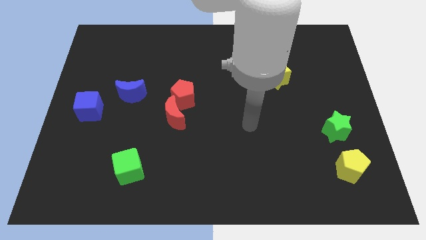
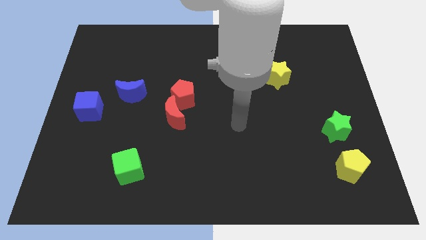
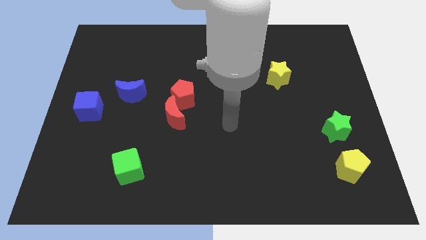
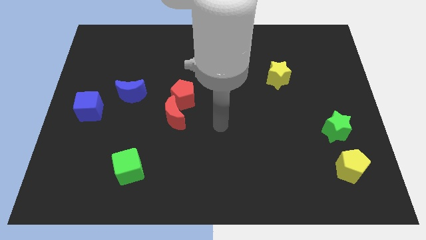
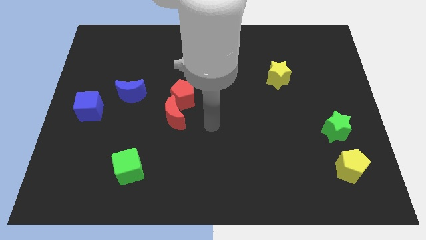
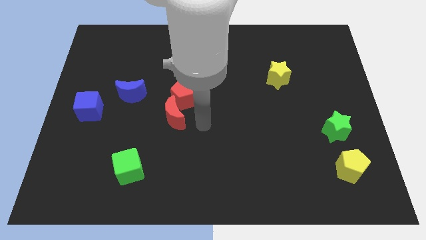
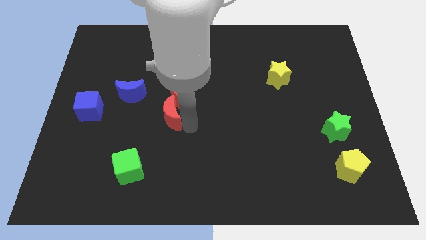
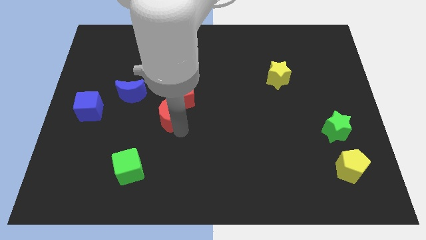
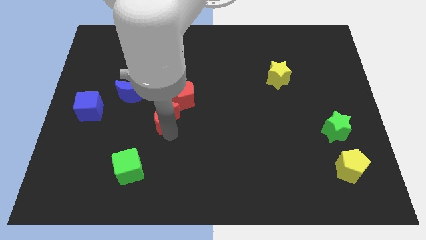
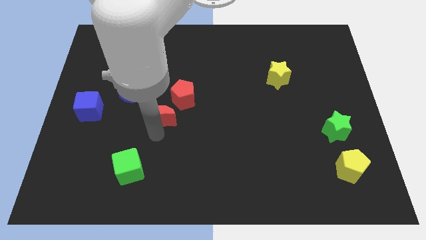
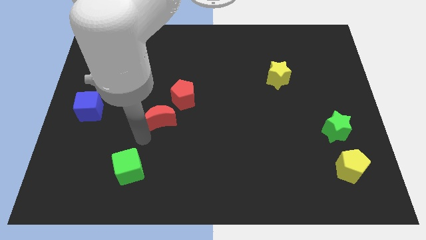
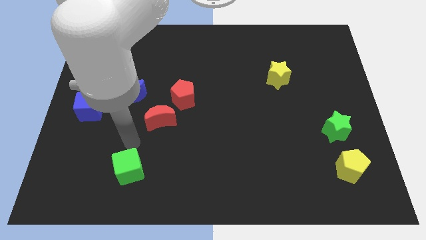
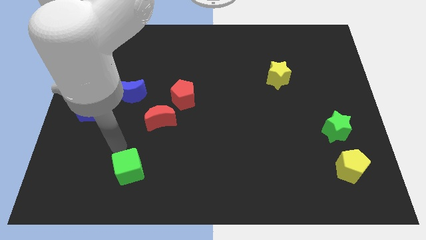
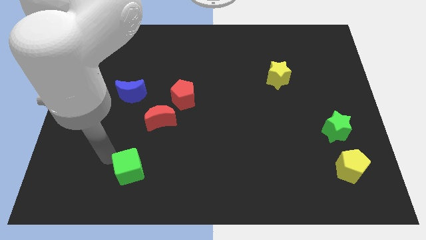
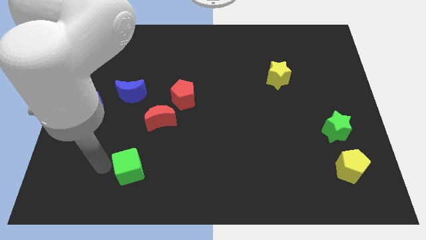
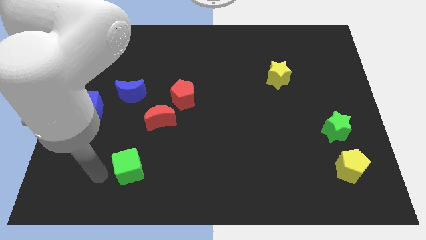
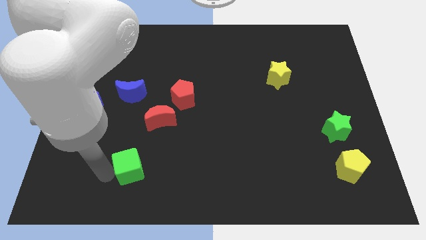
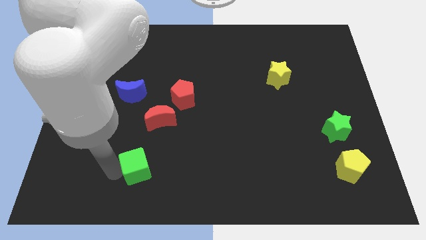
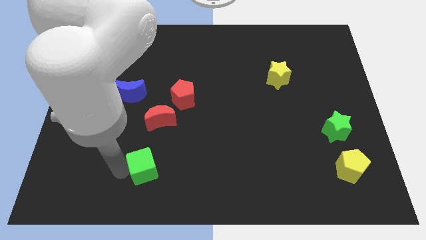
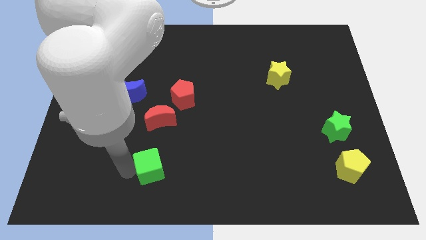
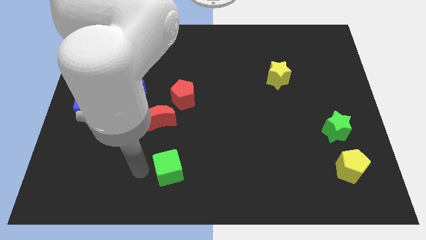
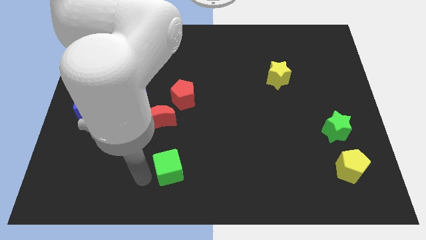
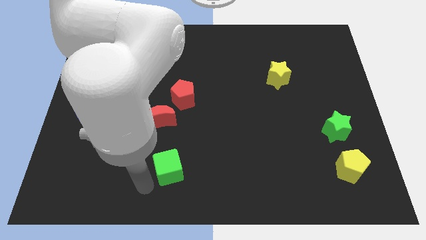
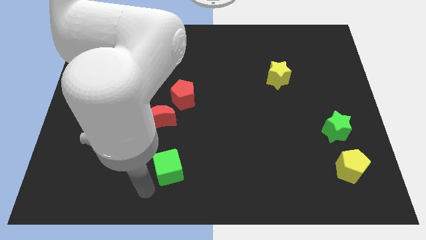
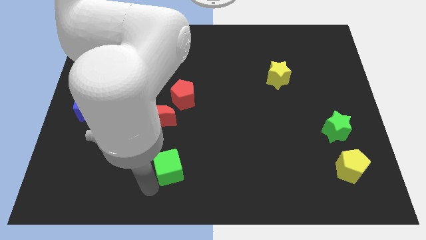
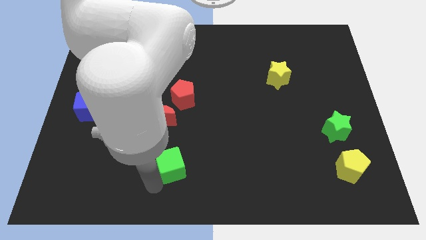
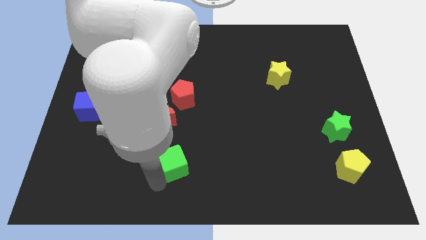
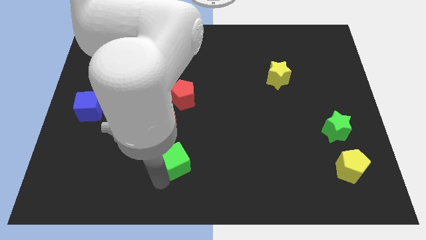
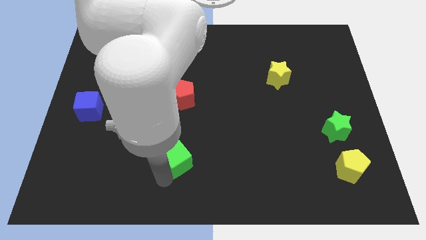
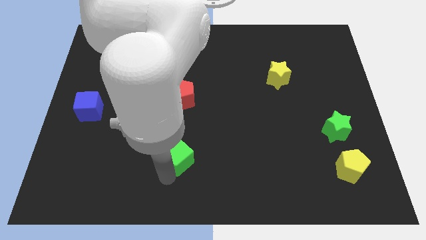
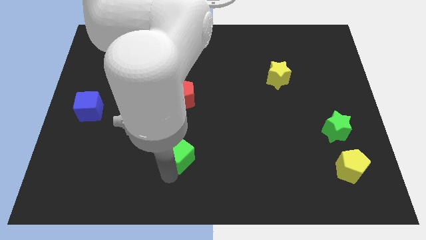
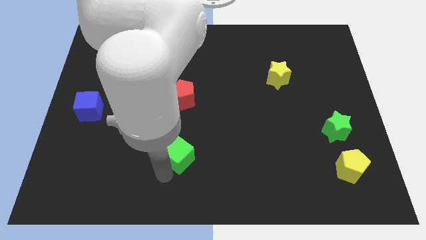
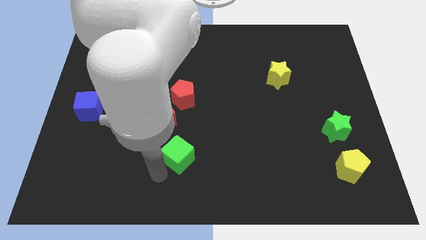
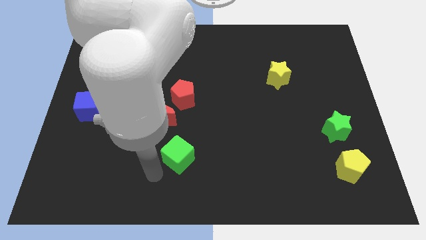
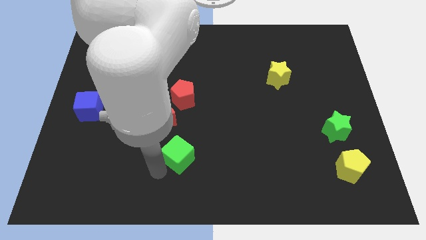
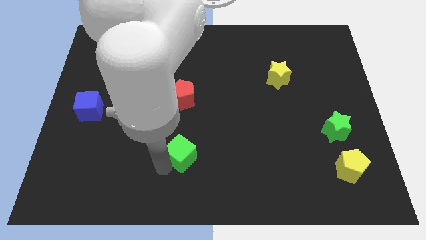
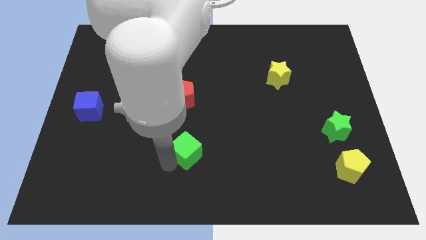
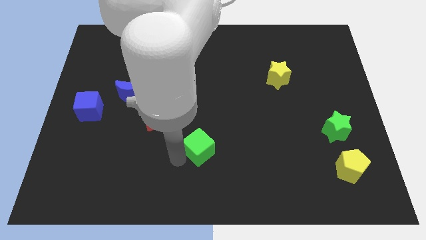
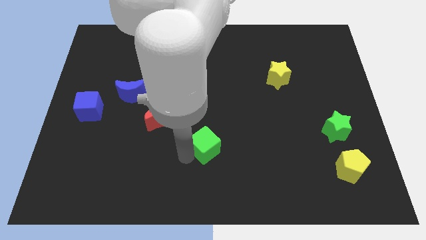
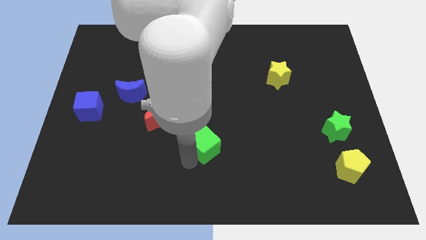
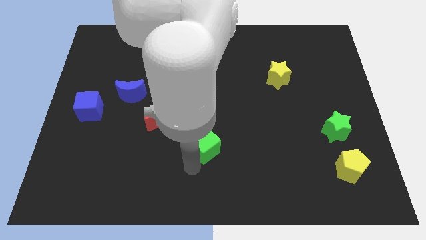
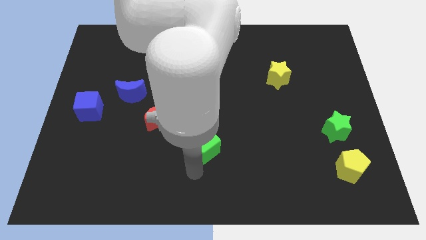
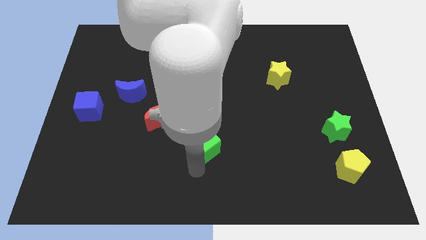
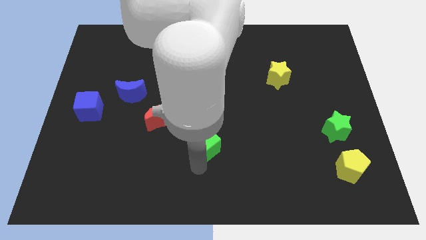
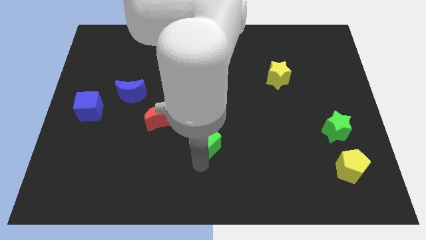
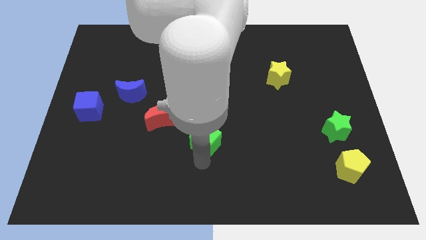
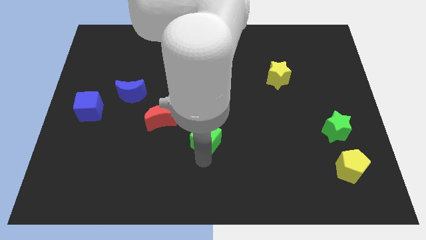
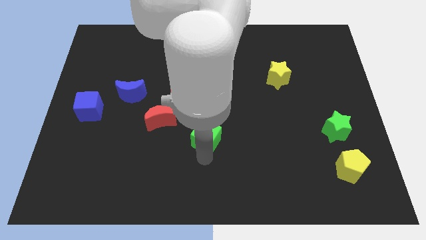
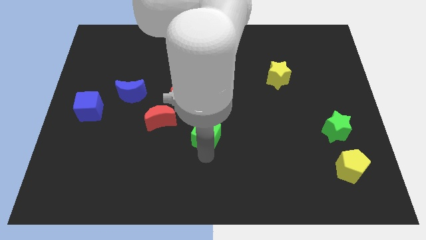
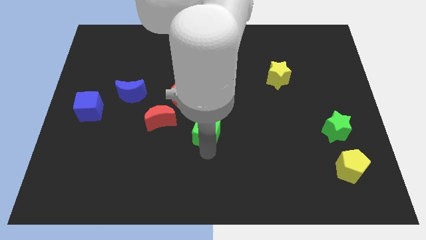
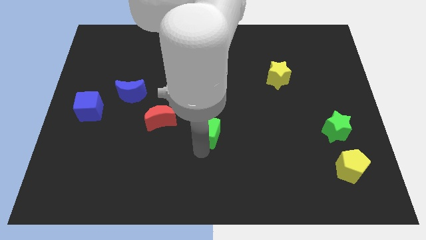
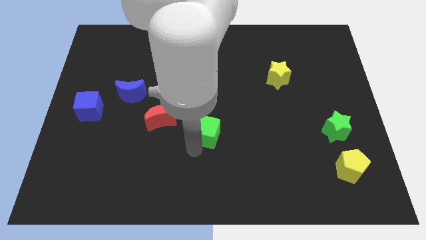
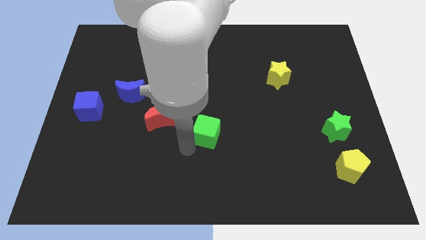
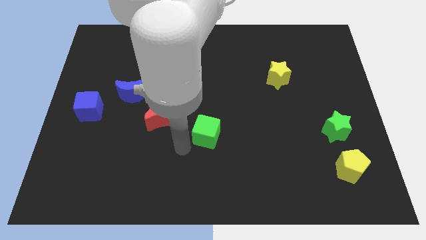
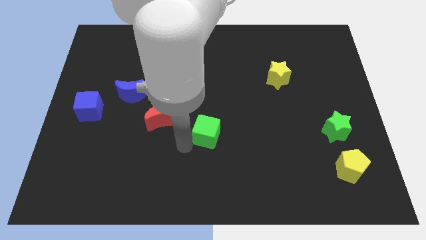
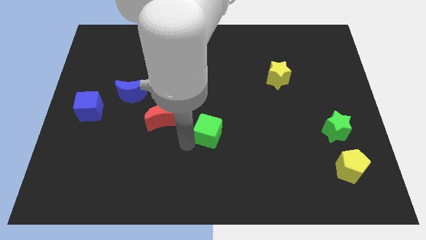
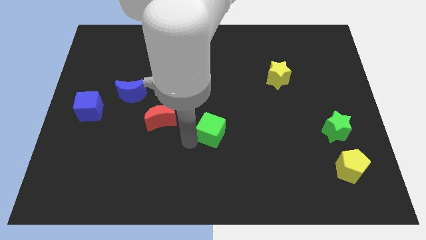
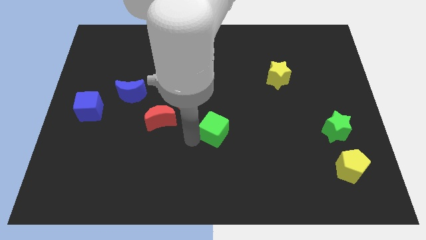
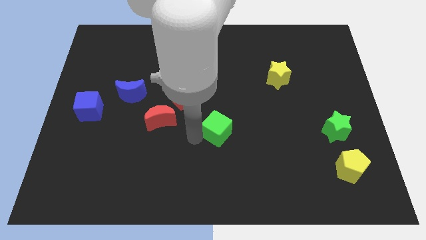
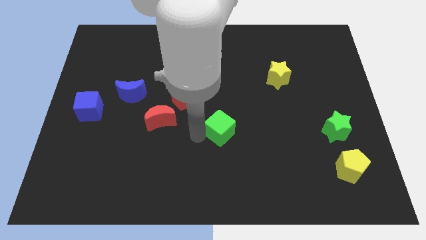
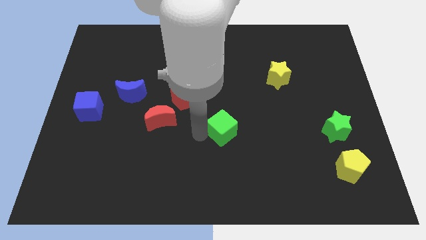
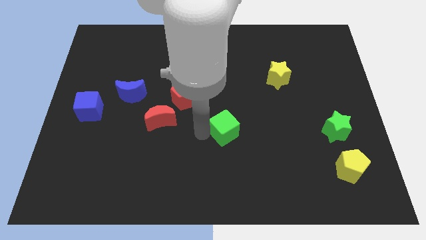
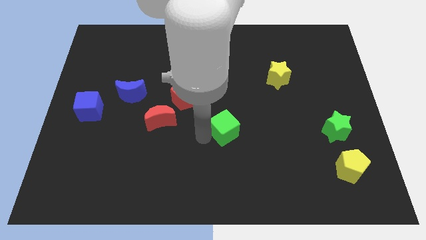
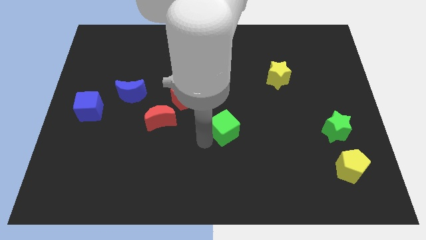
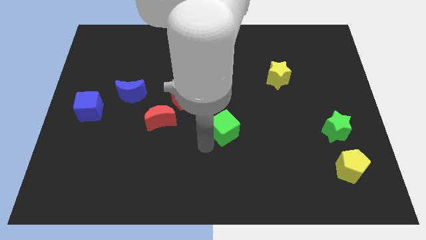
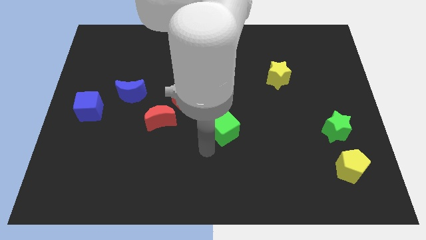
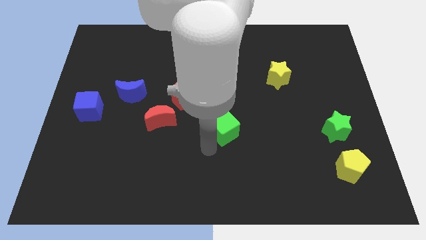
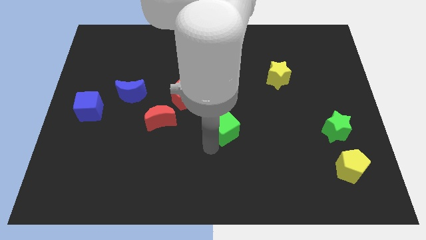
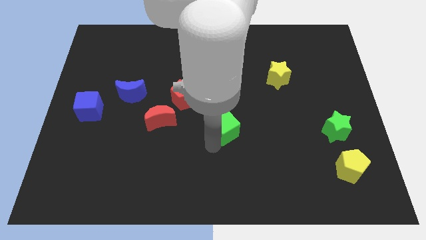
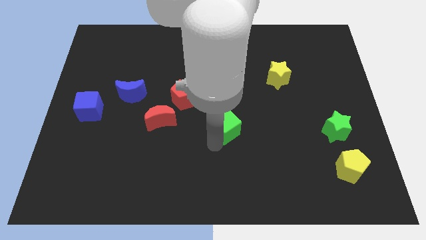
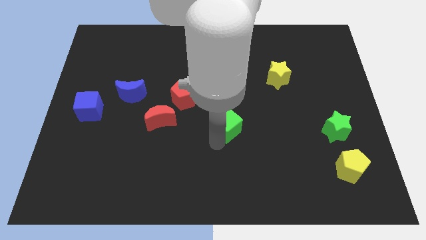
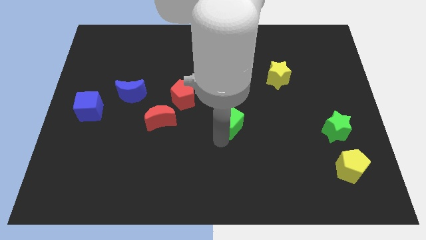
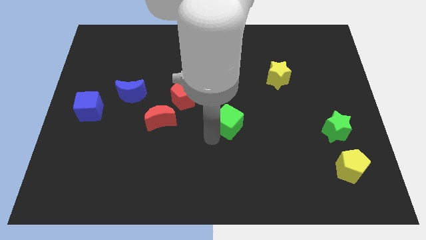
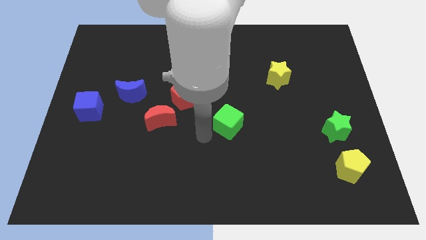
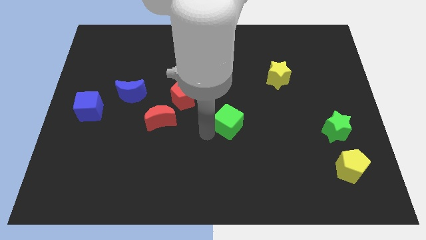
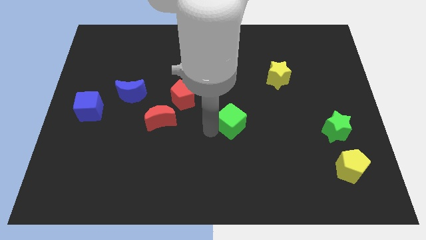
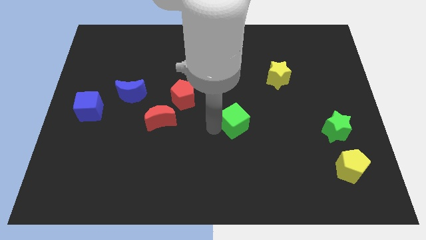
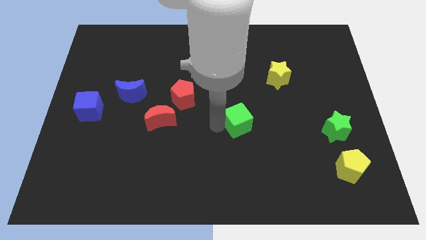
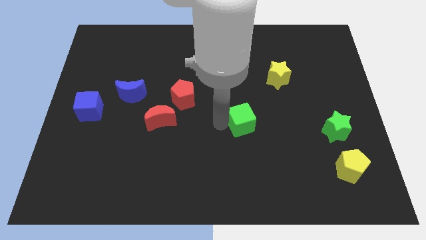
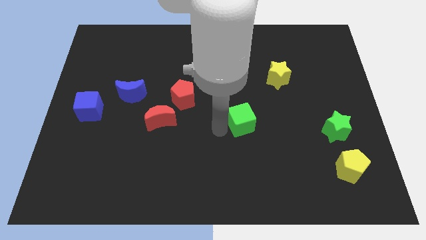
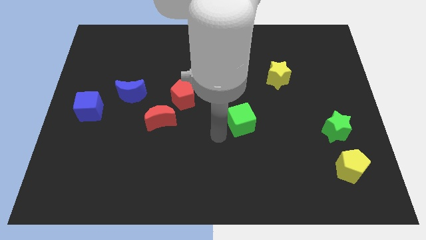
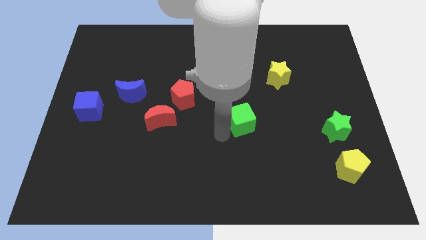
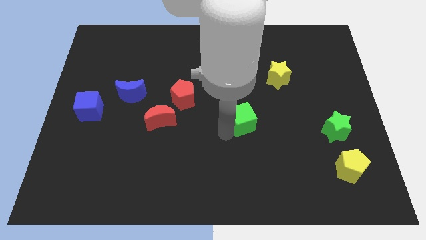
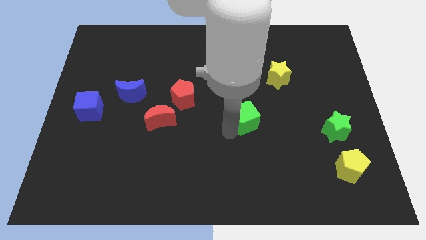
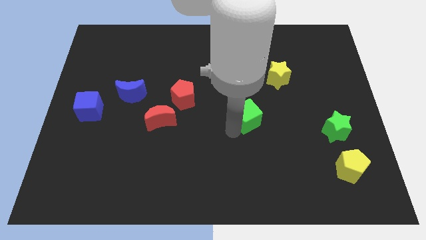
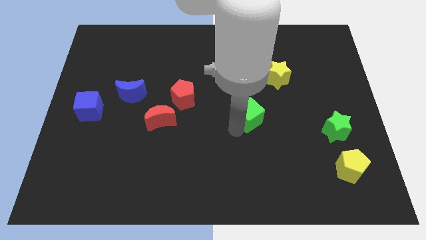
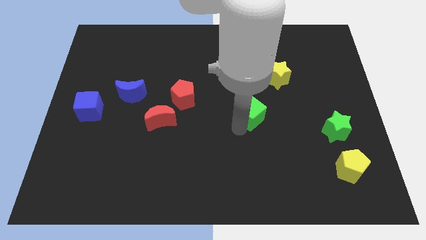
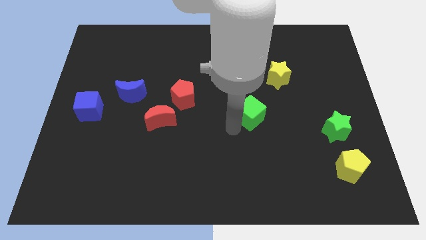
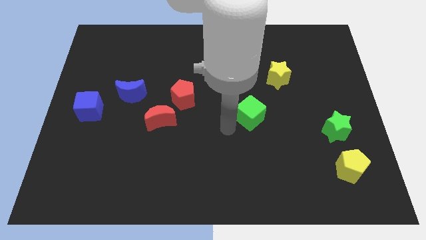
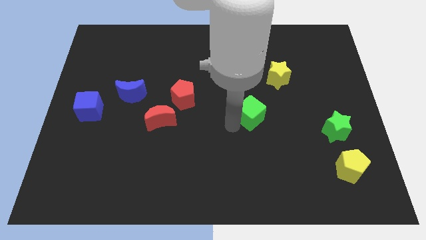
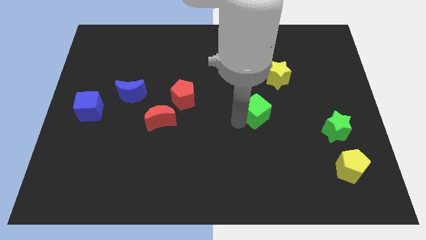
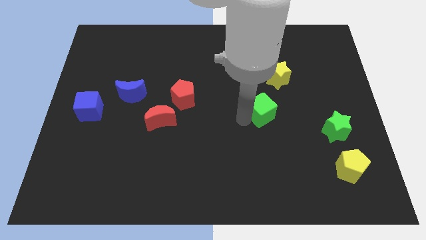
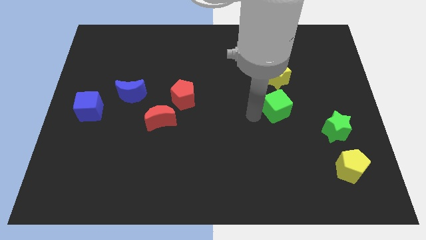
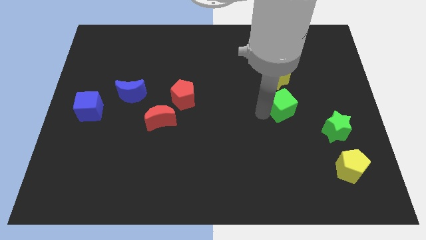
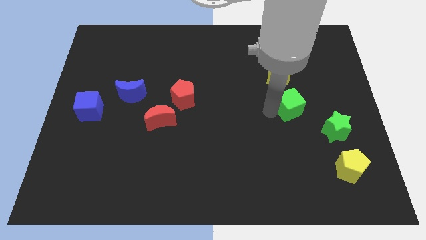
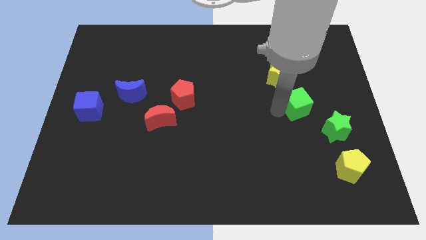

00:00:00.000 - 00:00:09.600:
push the green cube diagonally down and to the right of the yellow star
